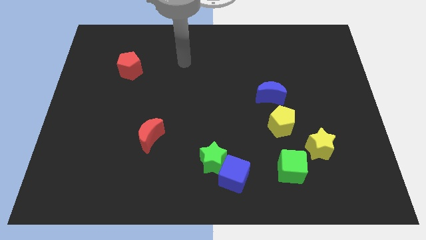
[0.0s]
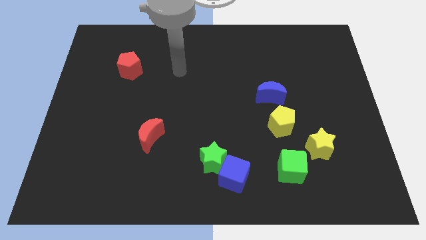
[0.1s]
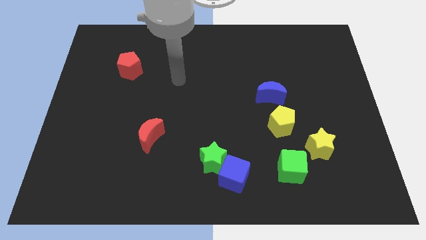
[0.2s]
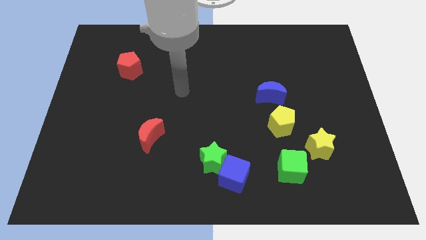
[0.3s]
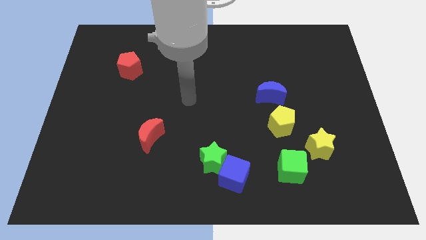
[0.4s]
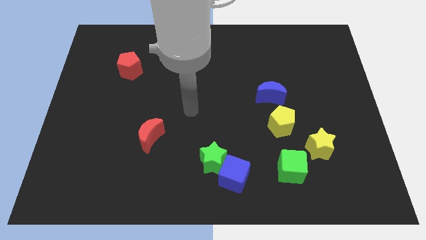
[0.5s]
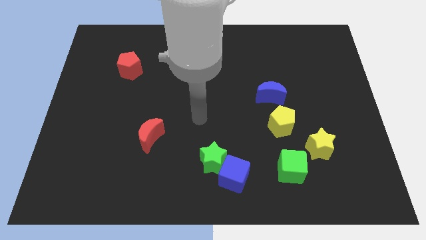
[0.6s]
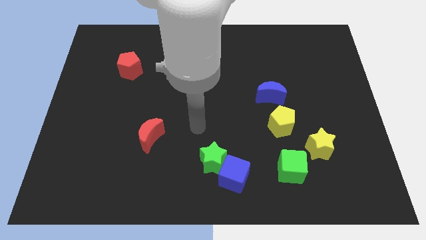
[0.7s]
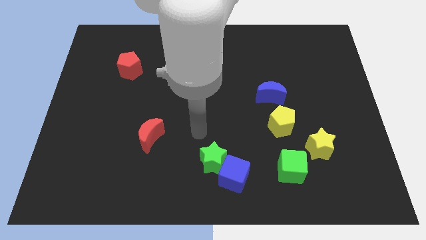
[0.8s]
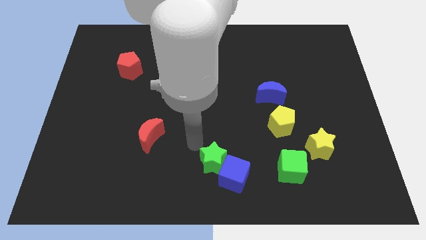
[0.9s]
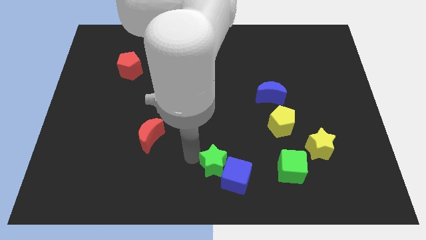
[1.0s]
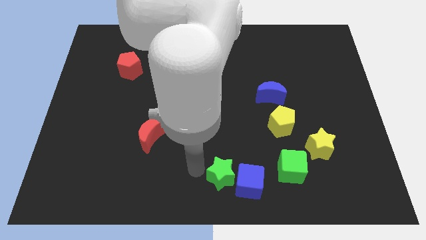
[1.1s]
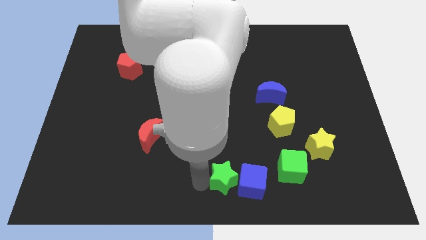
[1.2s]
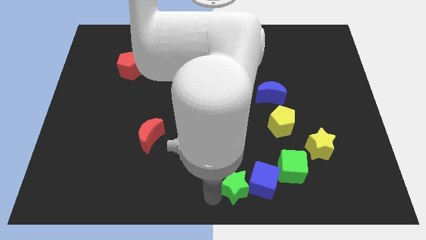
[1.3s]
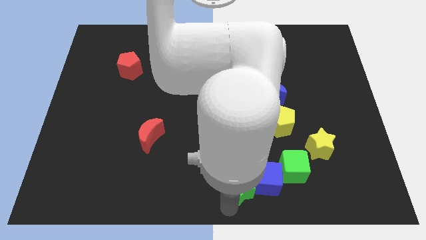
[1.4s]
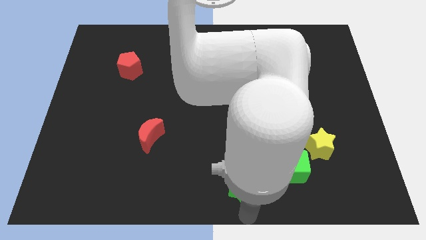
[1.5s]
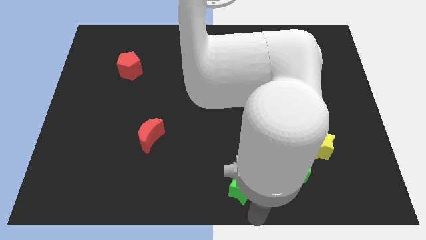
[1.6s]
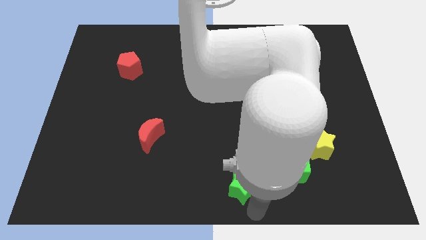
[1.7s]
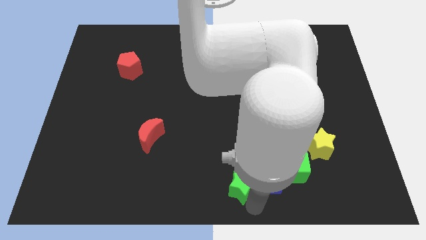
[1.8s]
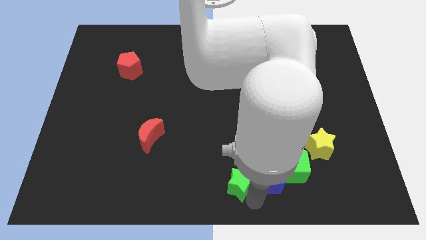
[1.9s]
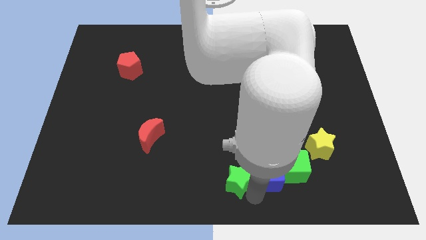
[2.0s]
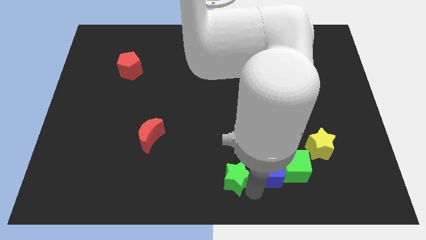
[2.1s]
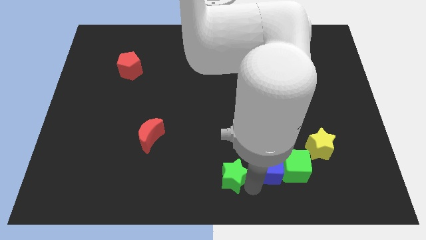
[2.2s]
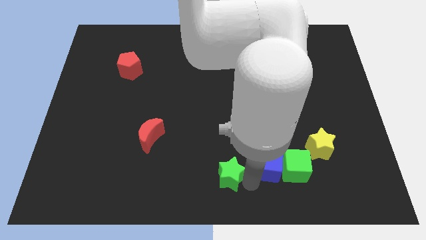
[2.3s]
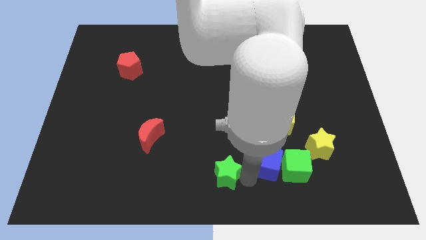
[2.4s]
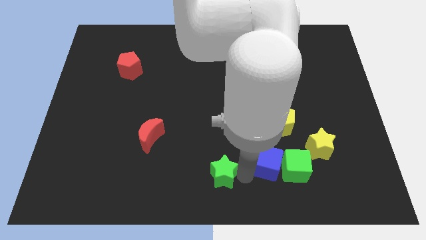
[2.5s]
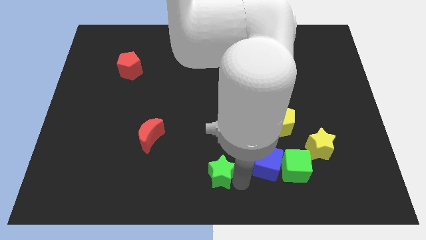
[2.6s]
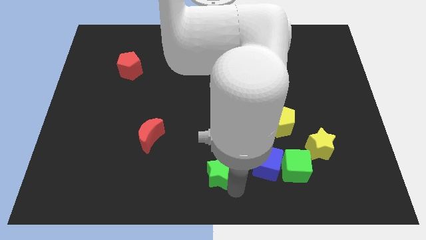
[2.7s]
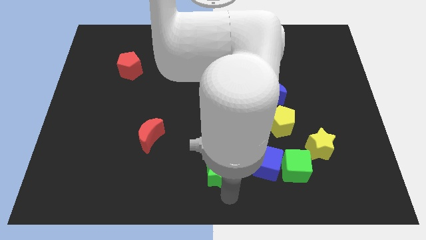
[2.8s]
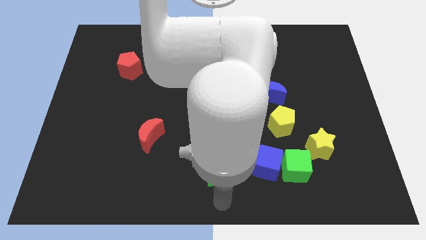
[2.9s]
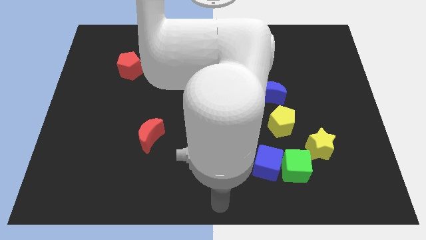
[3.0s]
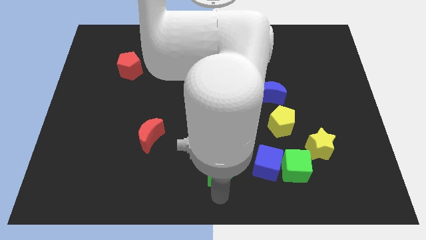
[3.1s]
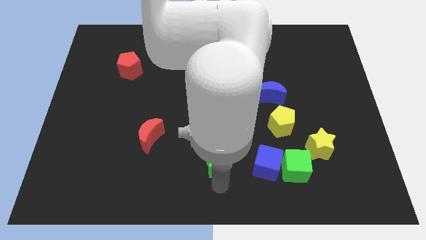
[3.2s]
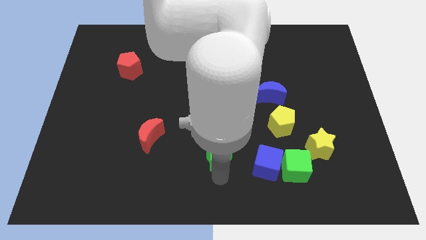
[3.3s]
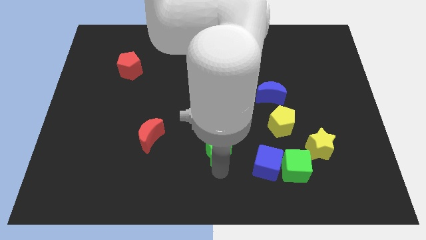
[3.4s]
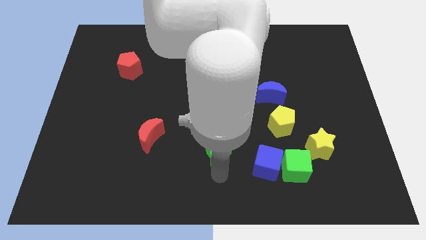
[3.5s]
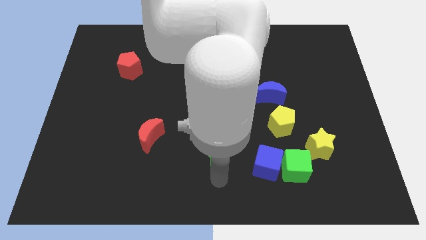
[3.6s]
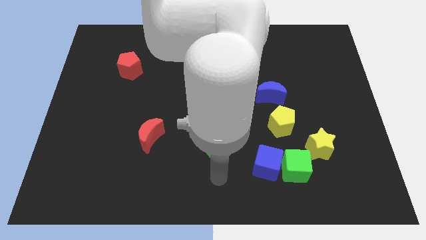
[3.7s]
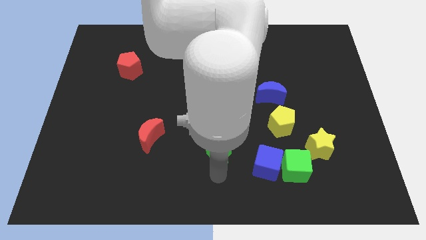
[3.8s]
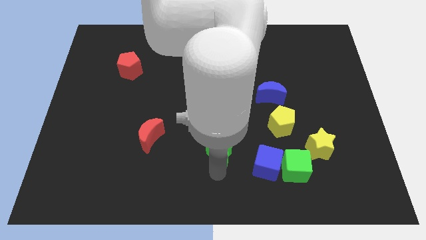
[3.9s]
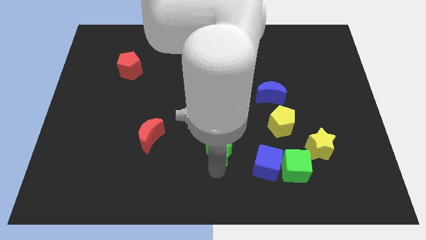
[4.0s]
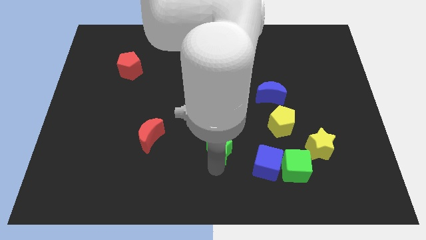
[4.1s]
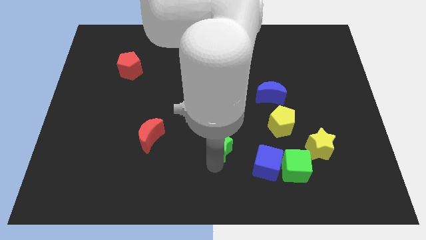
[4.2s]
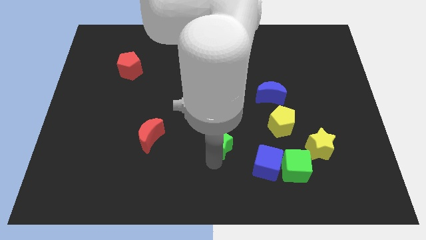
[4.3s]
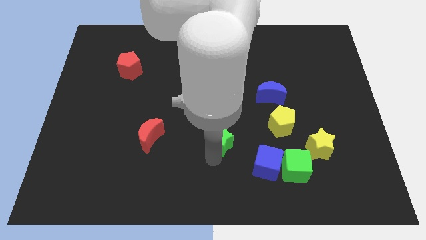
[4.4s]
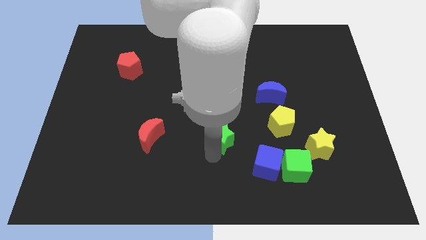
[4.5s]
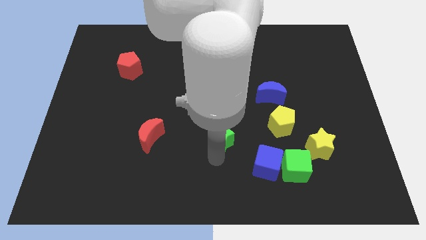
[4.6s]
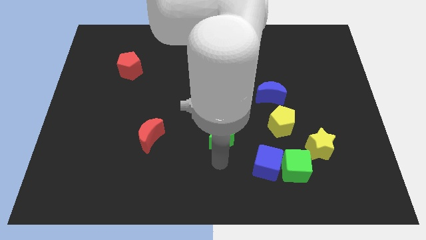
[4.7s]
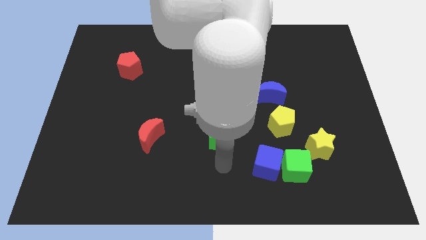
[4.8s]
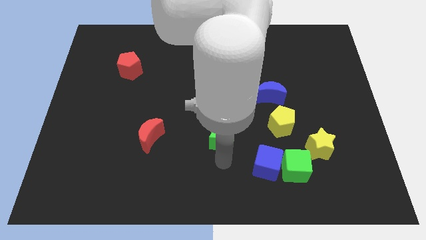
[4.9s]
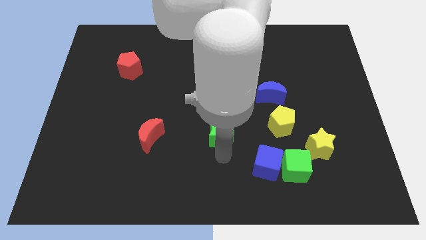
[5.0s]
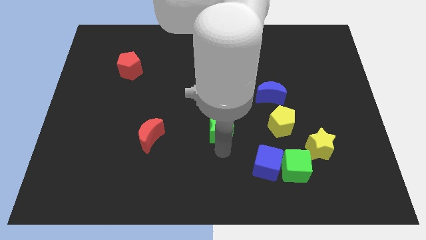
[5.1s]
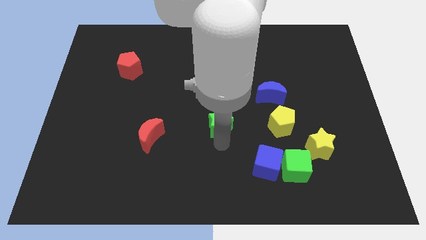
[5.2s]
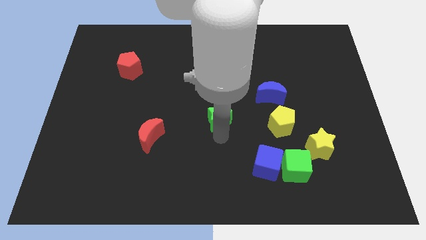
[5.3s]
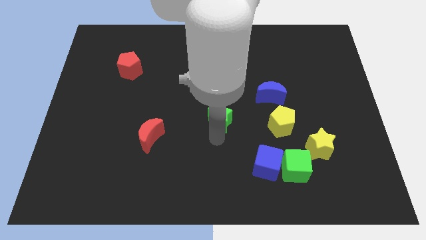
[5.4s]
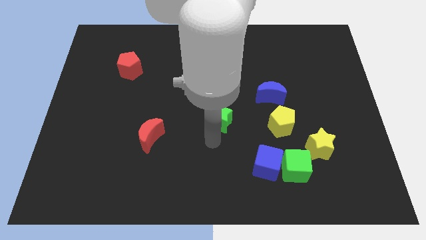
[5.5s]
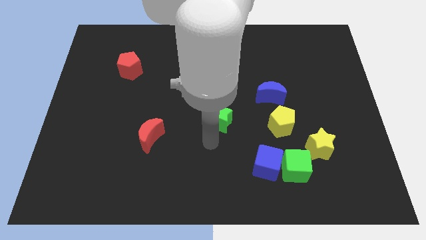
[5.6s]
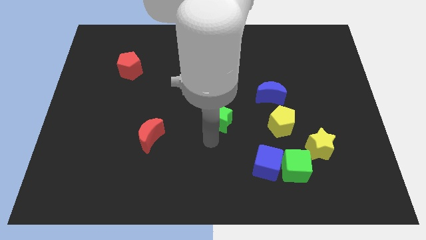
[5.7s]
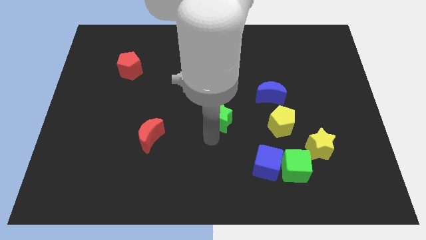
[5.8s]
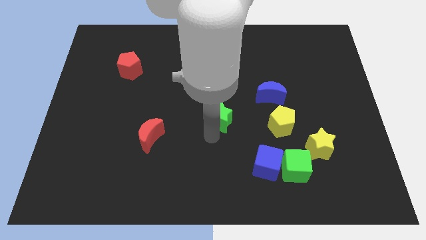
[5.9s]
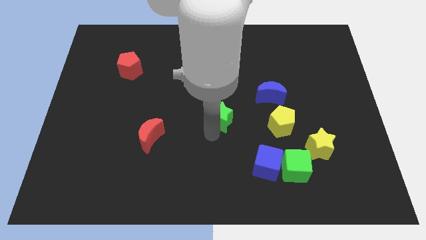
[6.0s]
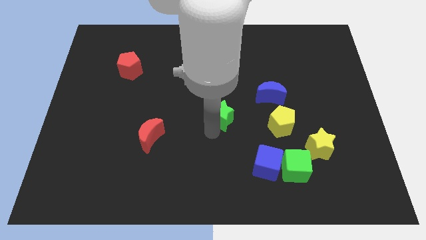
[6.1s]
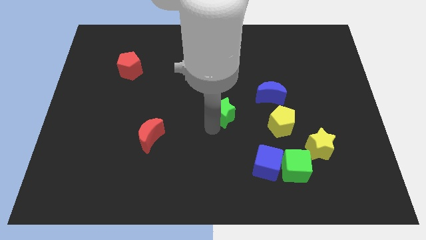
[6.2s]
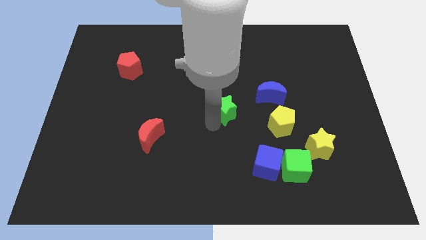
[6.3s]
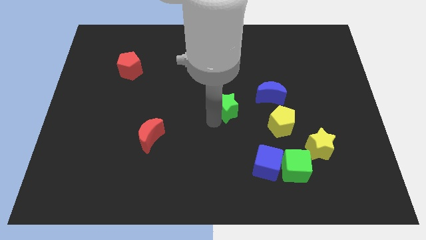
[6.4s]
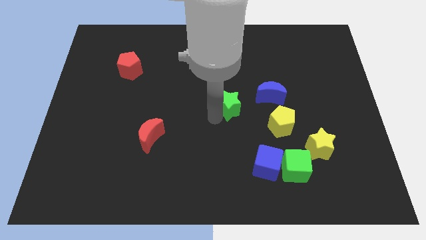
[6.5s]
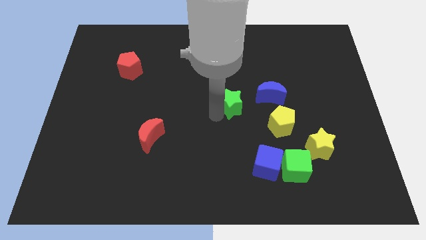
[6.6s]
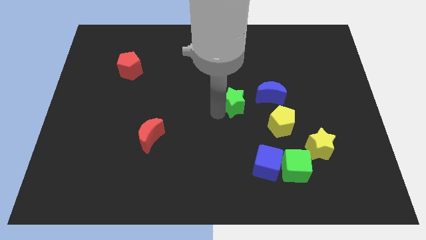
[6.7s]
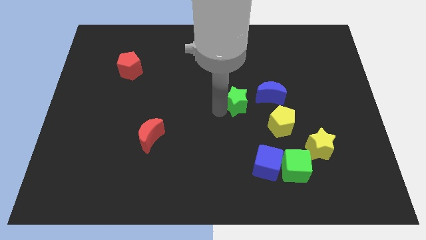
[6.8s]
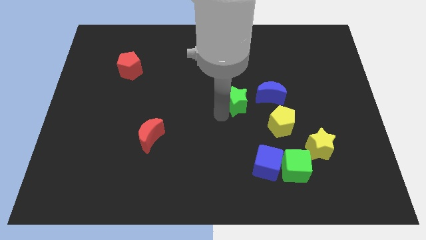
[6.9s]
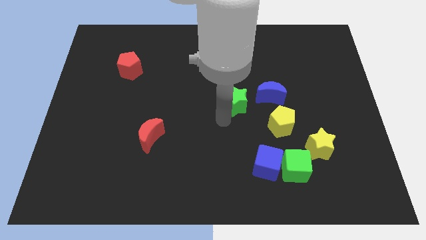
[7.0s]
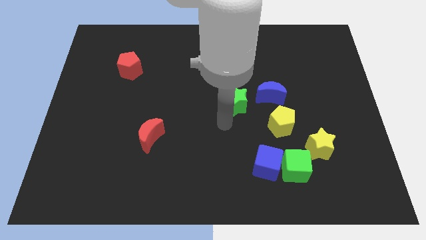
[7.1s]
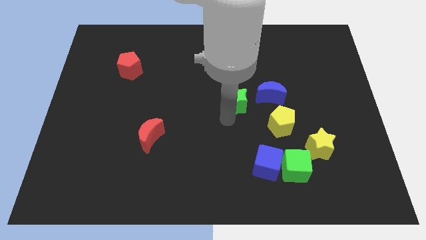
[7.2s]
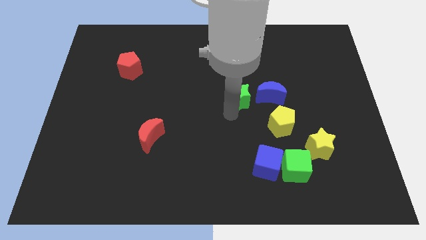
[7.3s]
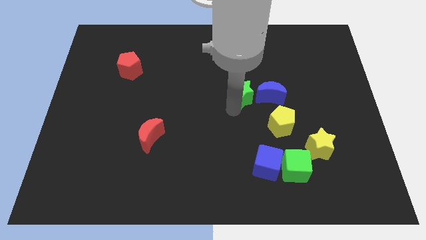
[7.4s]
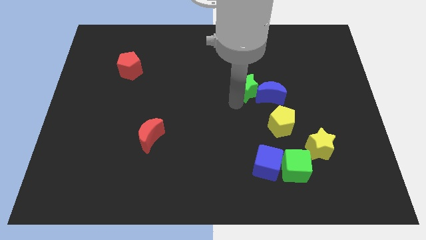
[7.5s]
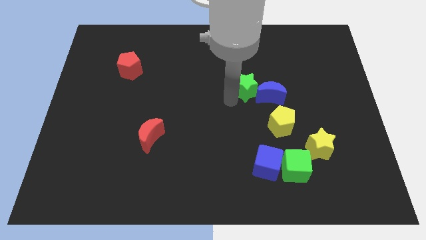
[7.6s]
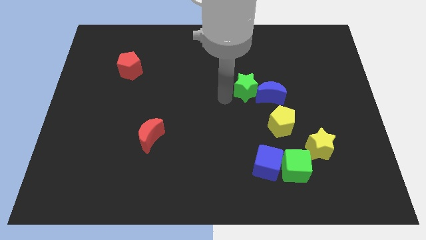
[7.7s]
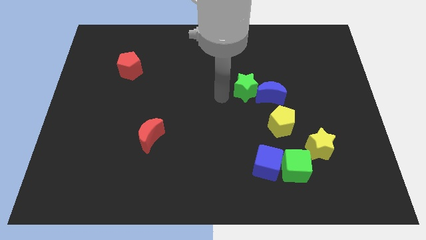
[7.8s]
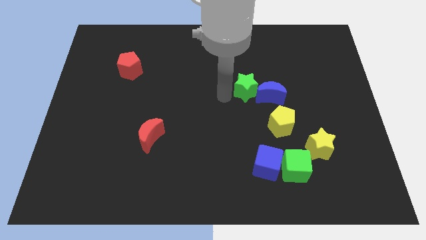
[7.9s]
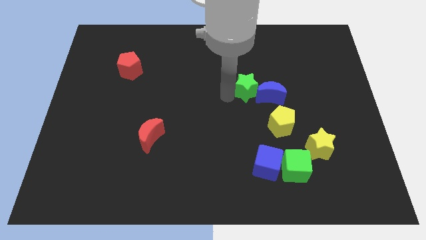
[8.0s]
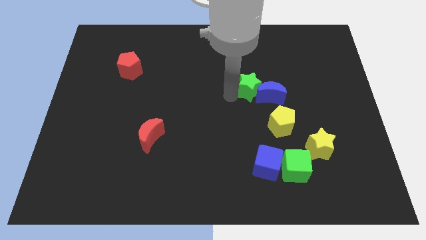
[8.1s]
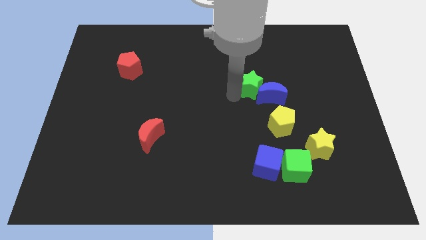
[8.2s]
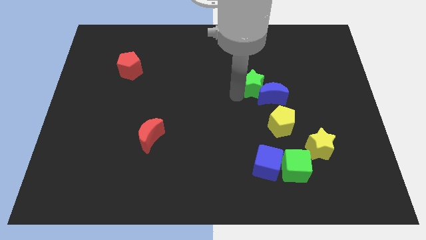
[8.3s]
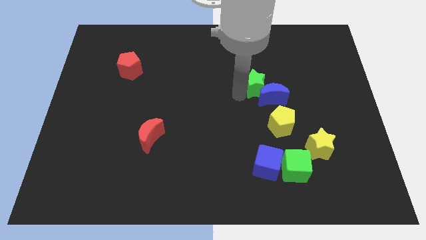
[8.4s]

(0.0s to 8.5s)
slide the green star up and then to the right
